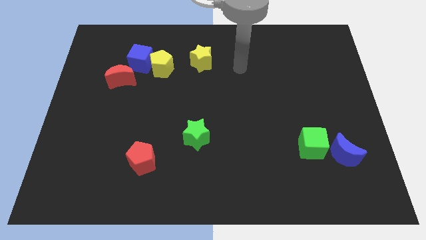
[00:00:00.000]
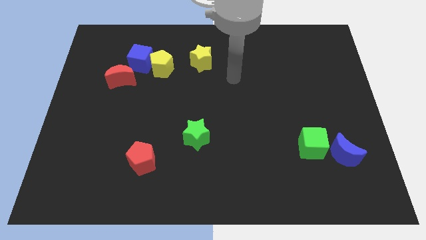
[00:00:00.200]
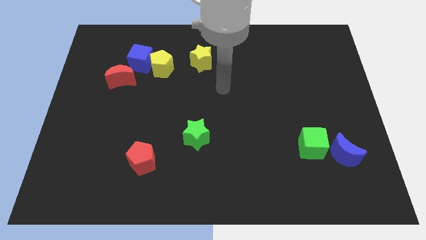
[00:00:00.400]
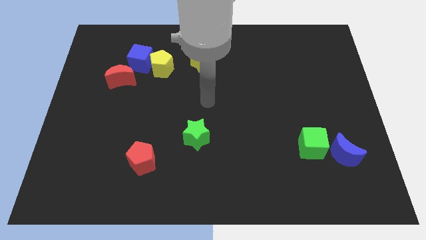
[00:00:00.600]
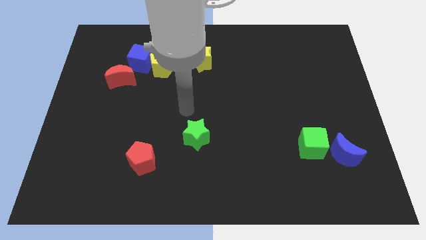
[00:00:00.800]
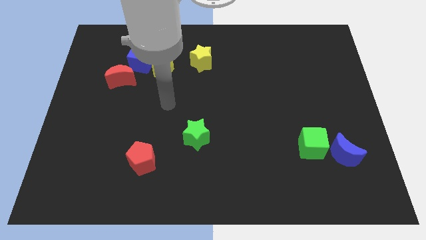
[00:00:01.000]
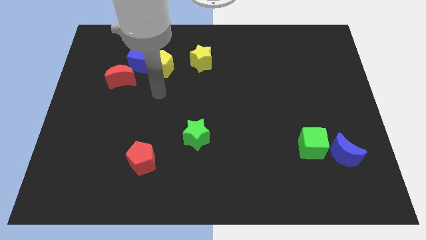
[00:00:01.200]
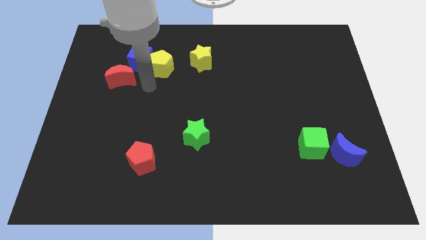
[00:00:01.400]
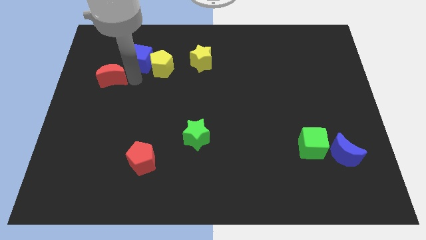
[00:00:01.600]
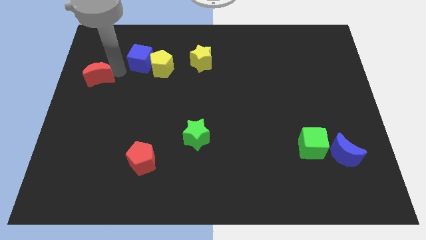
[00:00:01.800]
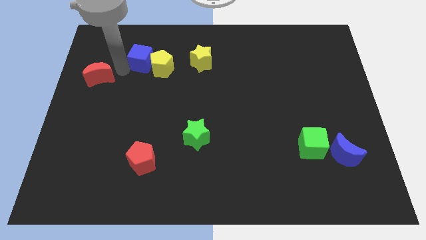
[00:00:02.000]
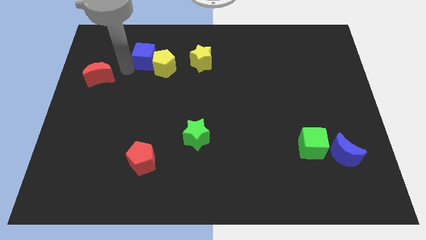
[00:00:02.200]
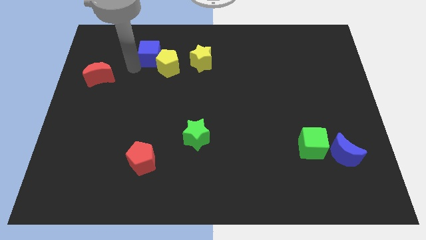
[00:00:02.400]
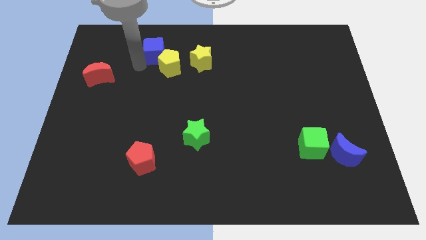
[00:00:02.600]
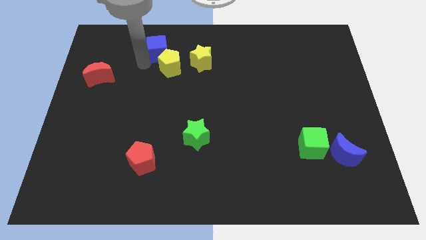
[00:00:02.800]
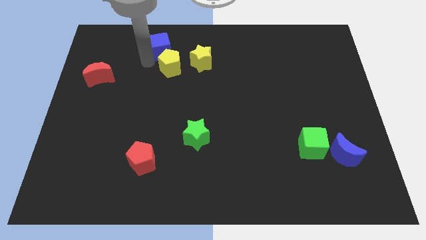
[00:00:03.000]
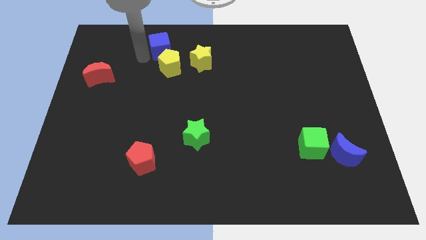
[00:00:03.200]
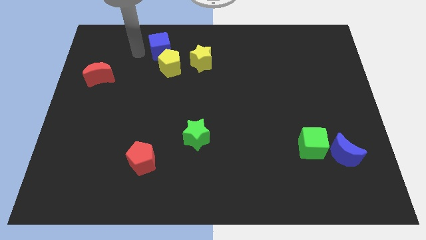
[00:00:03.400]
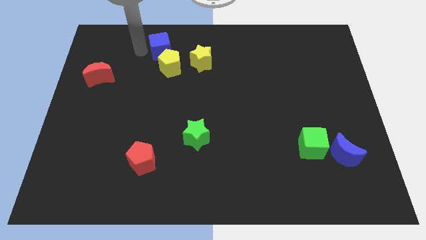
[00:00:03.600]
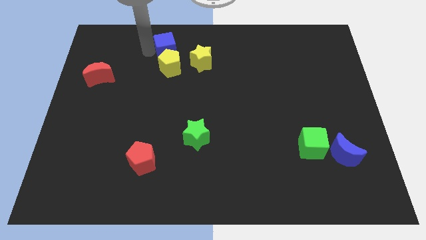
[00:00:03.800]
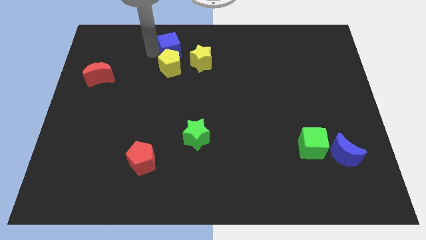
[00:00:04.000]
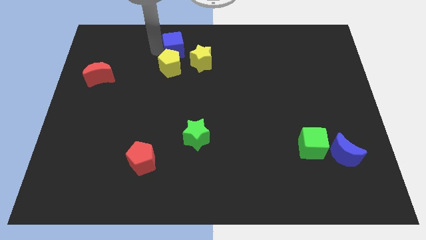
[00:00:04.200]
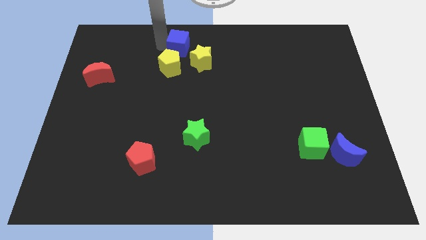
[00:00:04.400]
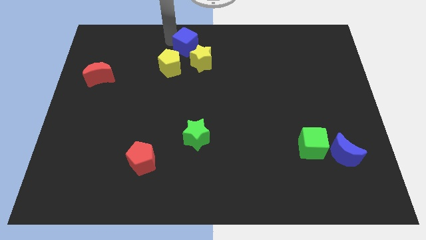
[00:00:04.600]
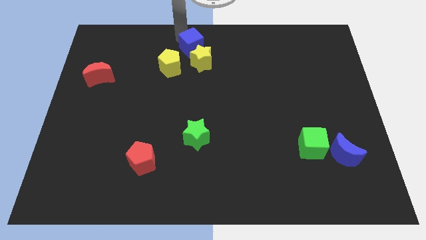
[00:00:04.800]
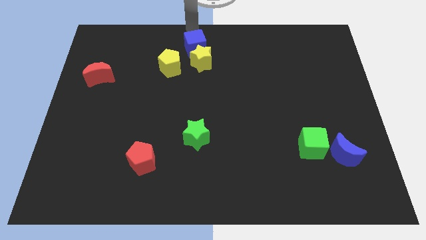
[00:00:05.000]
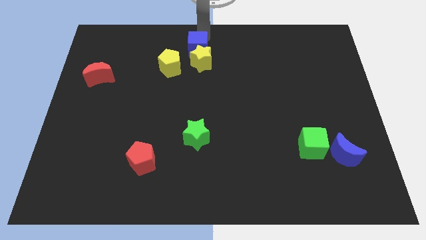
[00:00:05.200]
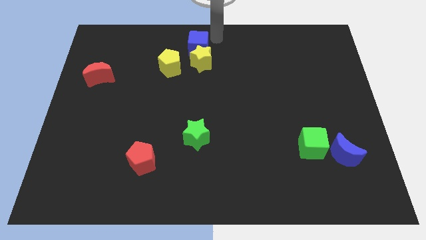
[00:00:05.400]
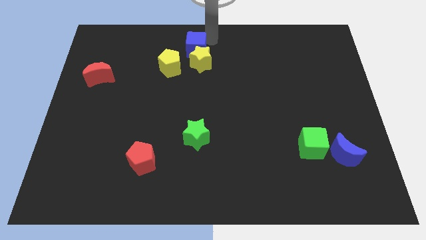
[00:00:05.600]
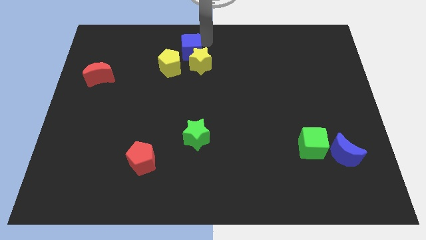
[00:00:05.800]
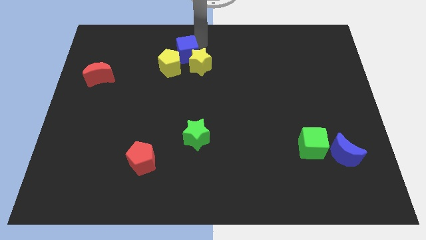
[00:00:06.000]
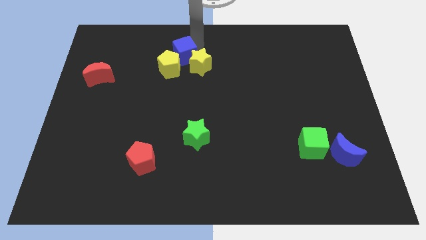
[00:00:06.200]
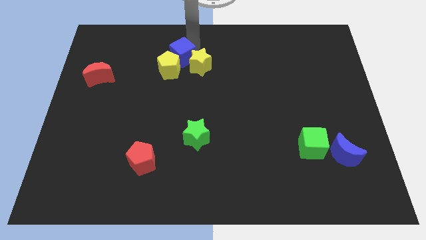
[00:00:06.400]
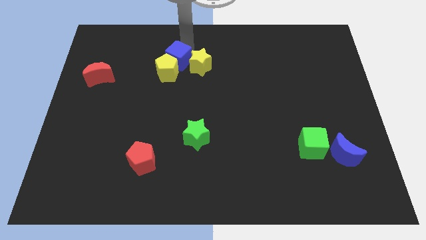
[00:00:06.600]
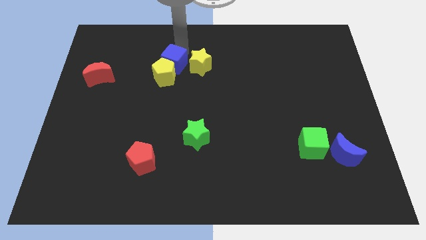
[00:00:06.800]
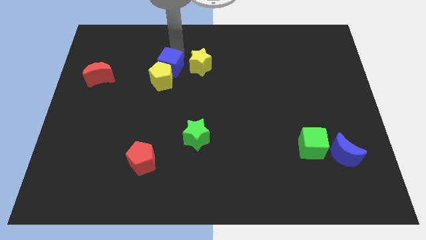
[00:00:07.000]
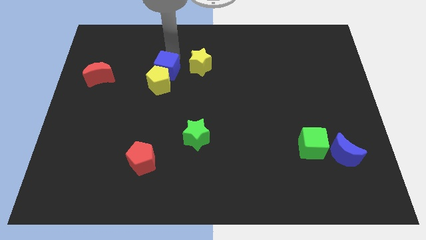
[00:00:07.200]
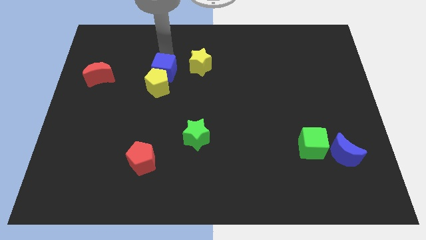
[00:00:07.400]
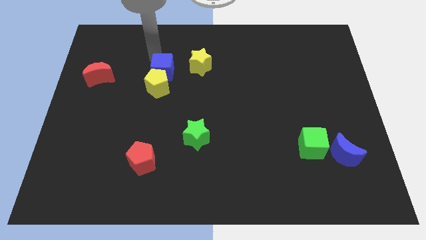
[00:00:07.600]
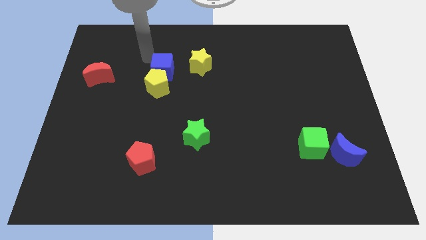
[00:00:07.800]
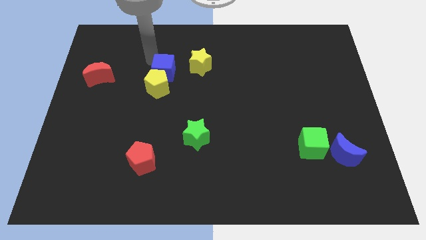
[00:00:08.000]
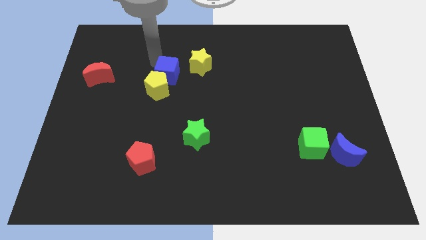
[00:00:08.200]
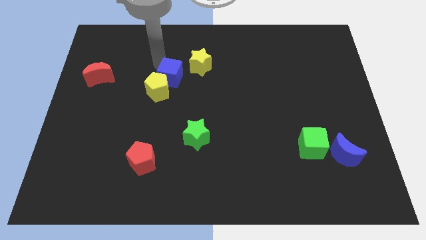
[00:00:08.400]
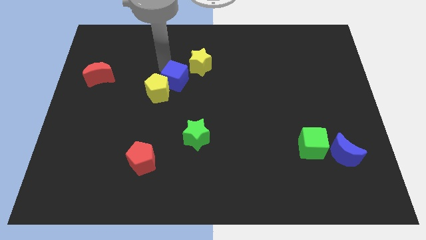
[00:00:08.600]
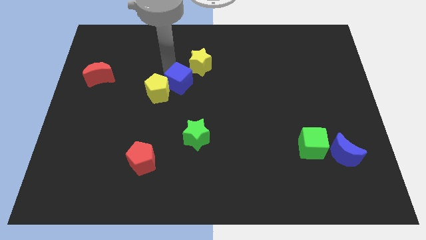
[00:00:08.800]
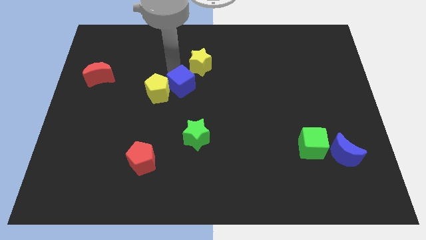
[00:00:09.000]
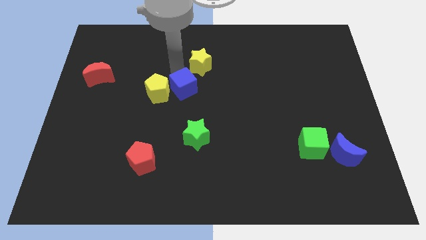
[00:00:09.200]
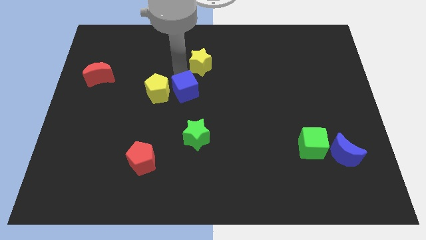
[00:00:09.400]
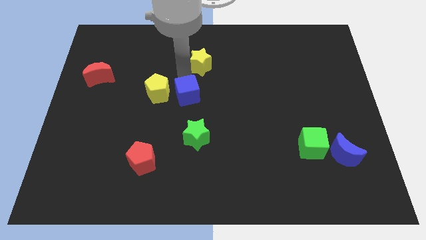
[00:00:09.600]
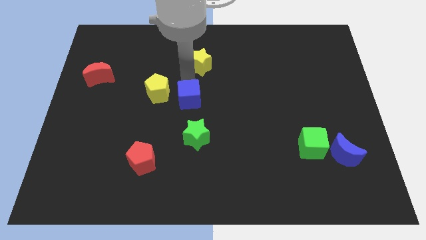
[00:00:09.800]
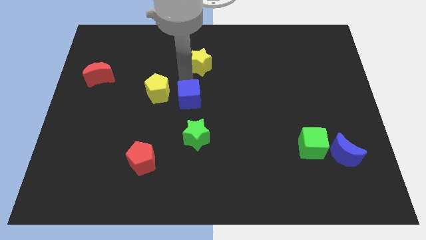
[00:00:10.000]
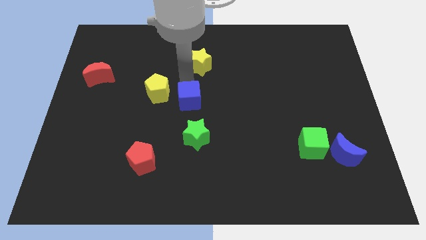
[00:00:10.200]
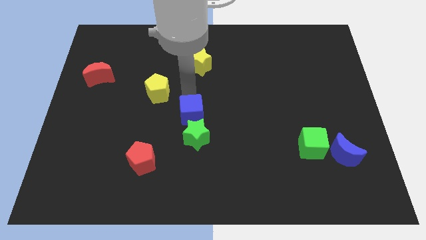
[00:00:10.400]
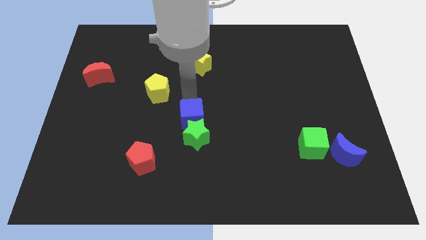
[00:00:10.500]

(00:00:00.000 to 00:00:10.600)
push the blue cube next to the green star

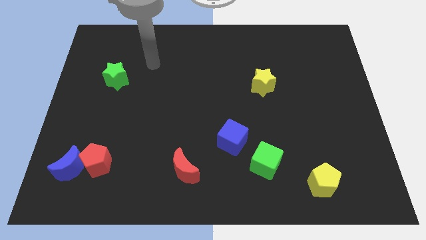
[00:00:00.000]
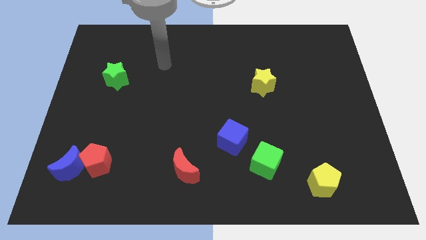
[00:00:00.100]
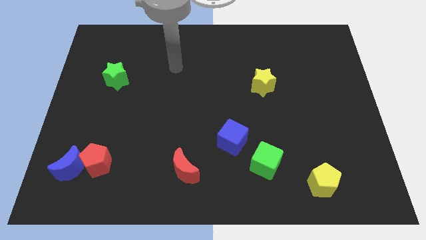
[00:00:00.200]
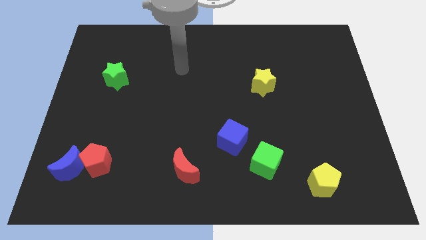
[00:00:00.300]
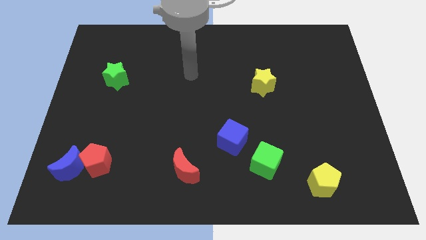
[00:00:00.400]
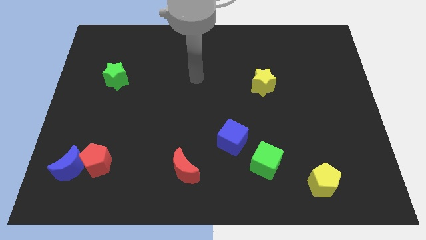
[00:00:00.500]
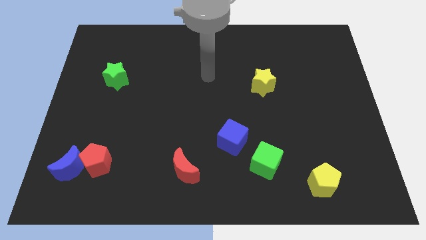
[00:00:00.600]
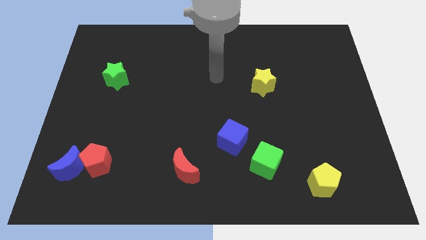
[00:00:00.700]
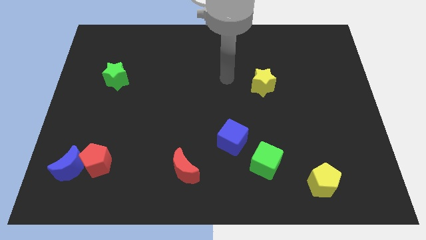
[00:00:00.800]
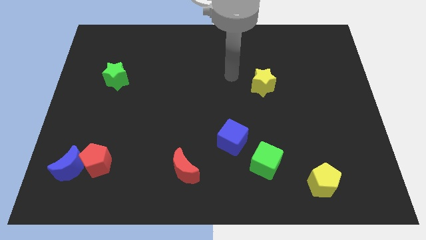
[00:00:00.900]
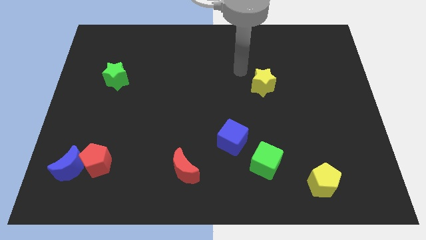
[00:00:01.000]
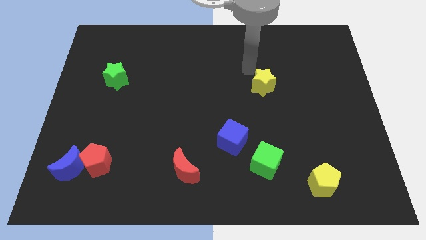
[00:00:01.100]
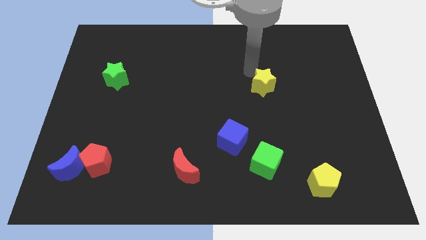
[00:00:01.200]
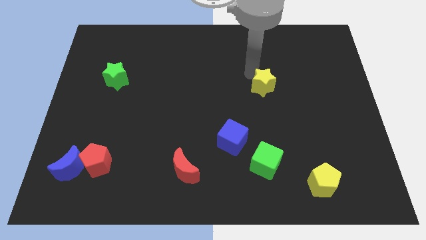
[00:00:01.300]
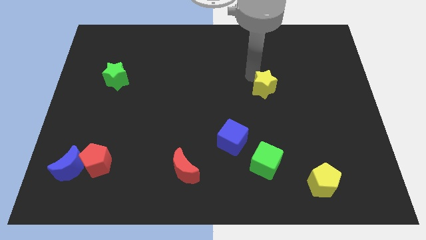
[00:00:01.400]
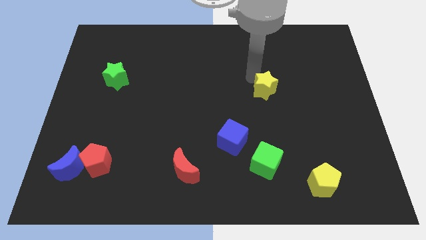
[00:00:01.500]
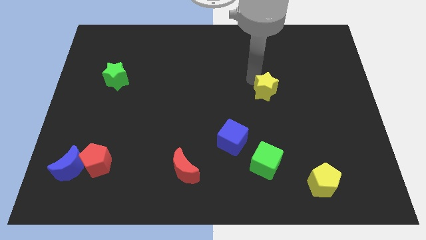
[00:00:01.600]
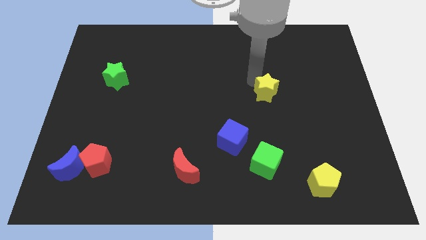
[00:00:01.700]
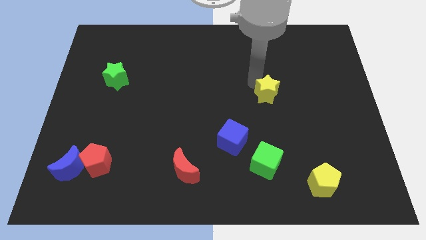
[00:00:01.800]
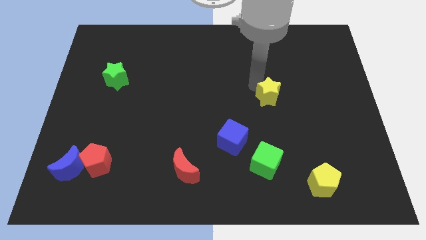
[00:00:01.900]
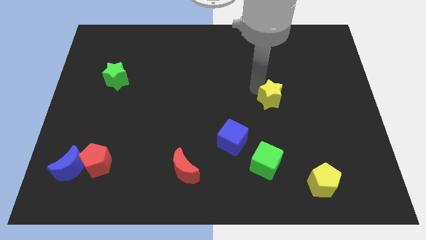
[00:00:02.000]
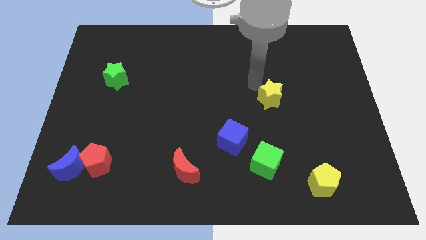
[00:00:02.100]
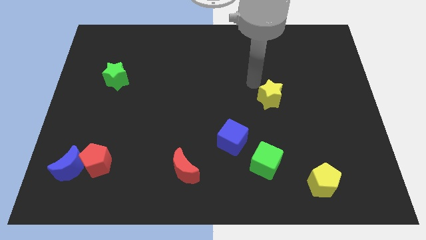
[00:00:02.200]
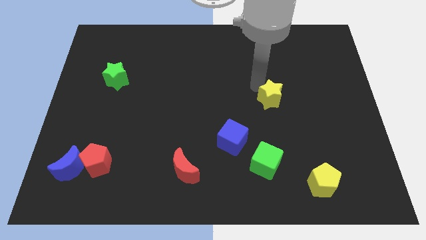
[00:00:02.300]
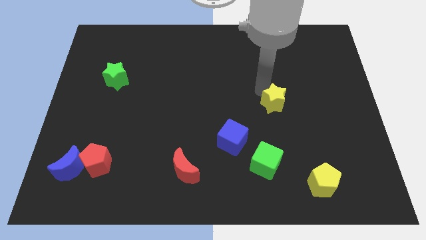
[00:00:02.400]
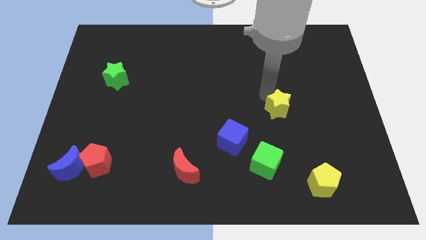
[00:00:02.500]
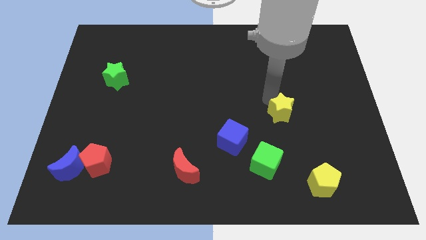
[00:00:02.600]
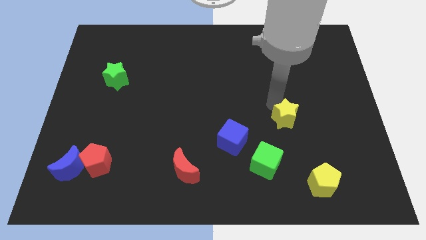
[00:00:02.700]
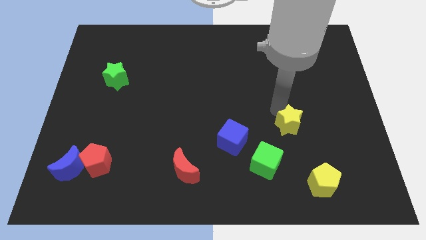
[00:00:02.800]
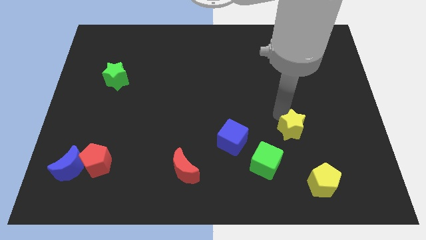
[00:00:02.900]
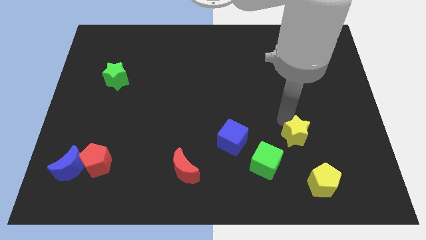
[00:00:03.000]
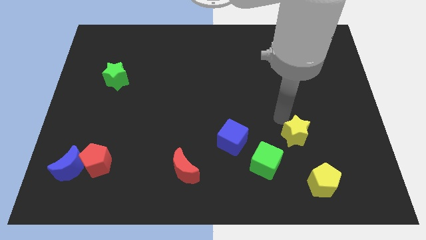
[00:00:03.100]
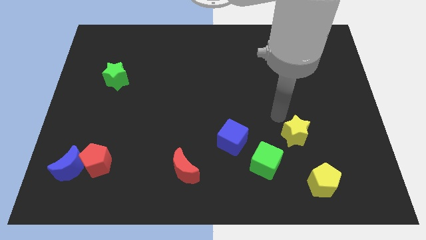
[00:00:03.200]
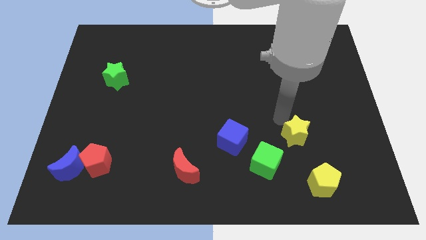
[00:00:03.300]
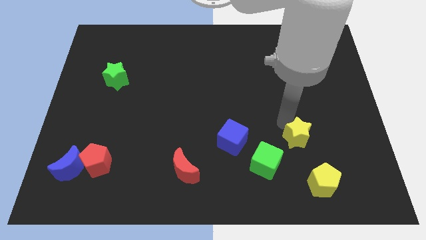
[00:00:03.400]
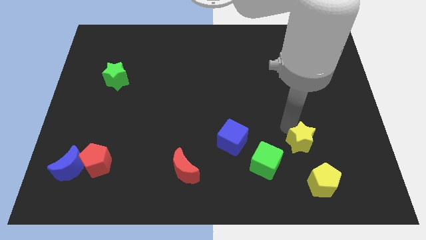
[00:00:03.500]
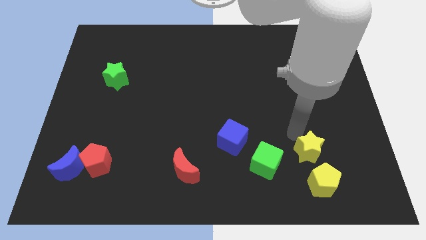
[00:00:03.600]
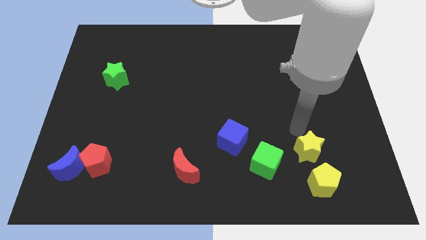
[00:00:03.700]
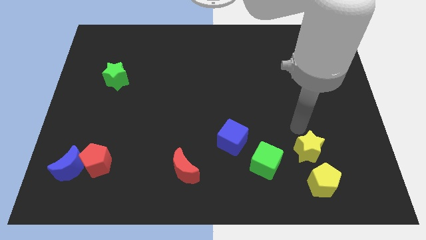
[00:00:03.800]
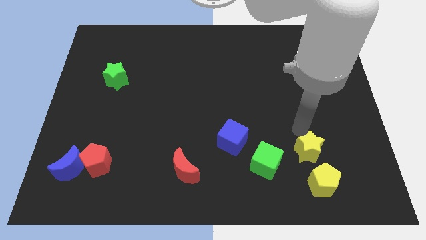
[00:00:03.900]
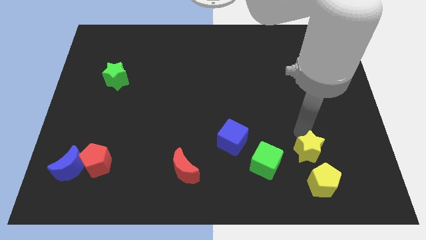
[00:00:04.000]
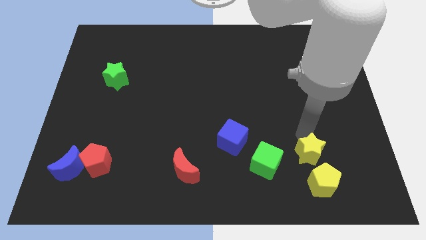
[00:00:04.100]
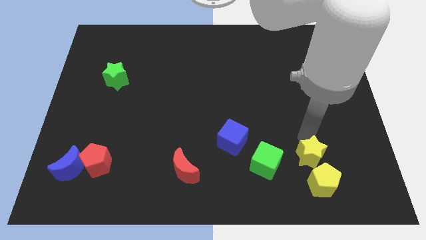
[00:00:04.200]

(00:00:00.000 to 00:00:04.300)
move the yellow star towards the yellow pentagon
